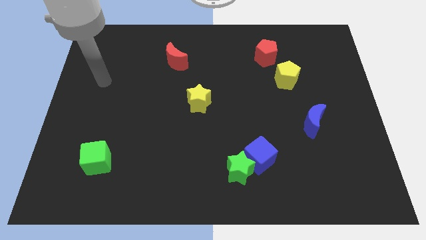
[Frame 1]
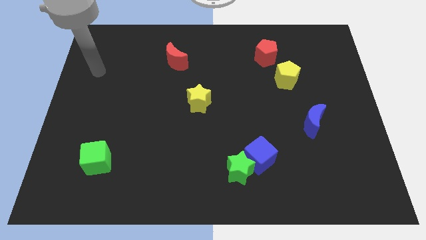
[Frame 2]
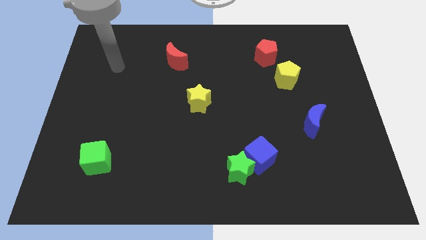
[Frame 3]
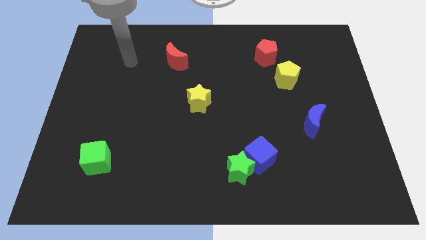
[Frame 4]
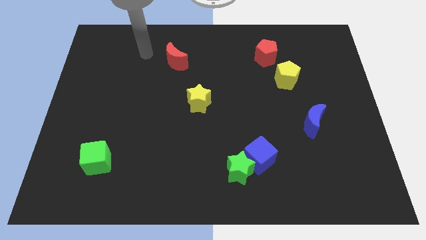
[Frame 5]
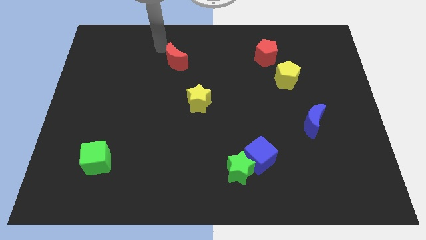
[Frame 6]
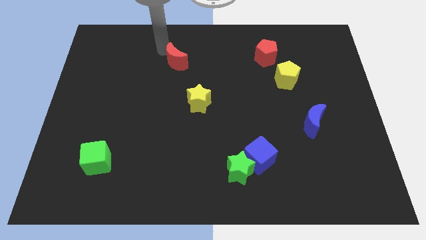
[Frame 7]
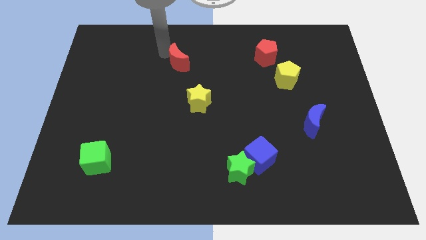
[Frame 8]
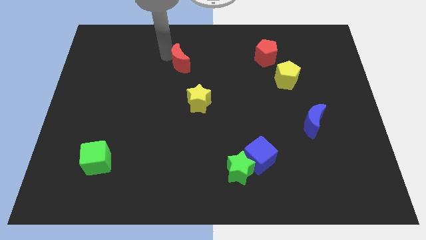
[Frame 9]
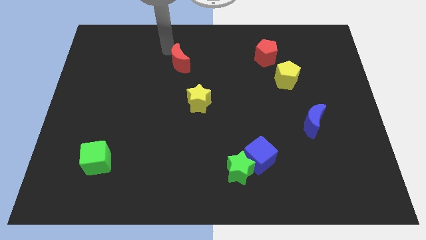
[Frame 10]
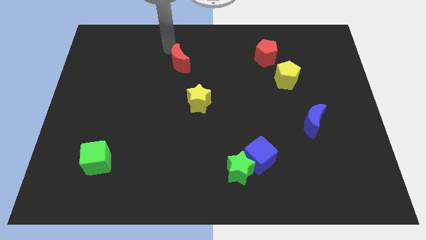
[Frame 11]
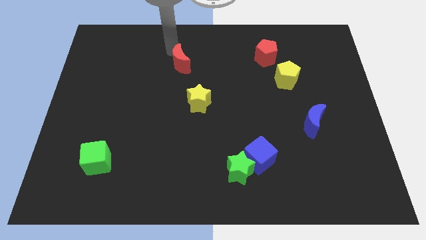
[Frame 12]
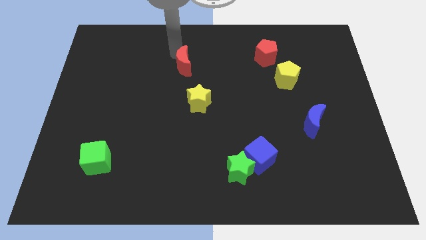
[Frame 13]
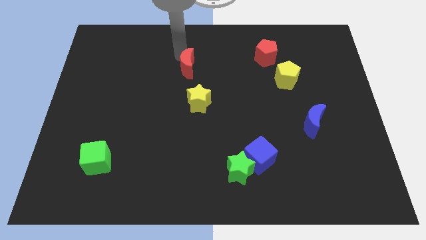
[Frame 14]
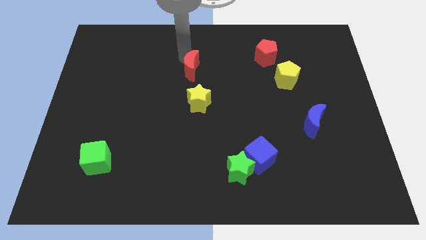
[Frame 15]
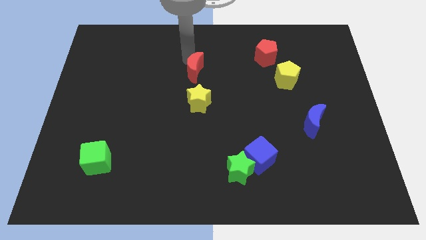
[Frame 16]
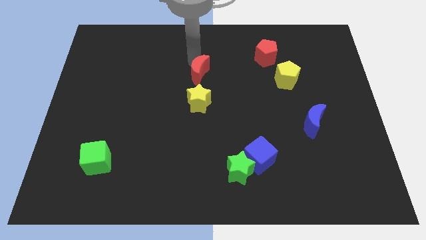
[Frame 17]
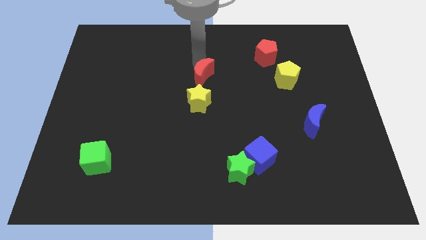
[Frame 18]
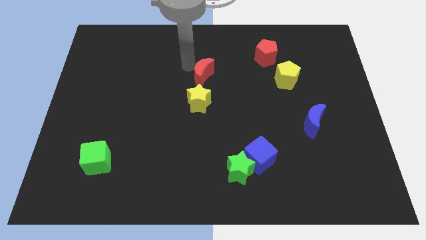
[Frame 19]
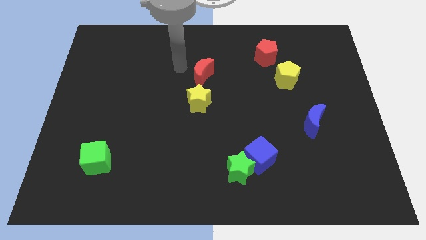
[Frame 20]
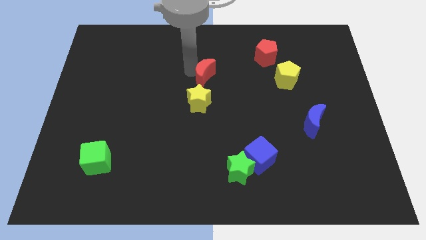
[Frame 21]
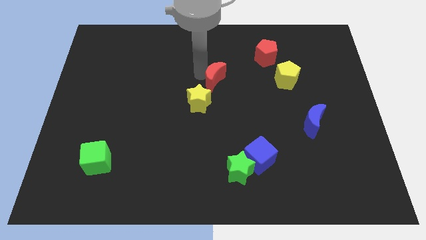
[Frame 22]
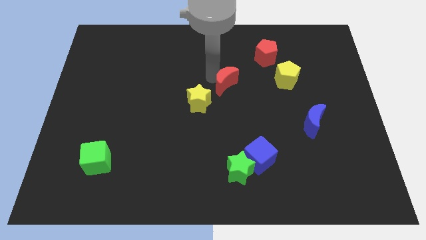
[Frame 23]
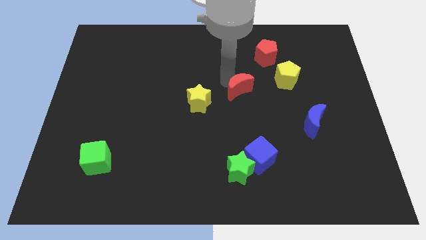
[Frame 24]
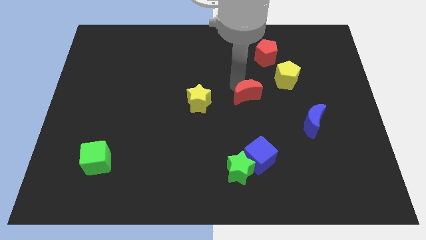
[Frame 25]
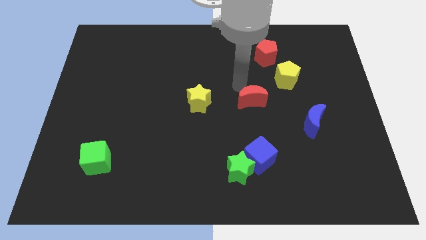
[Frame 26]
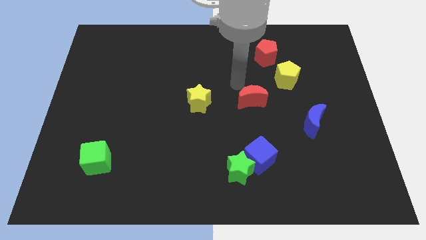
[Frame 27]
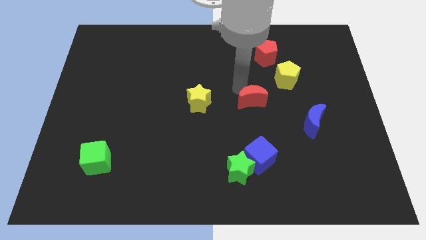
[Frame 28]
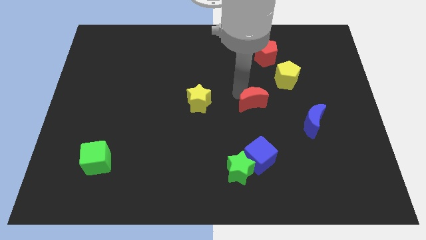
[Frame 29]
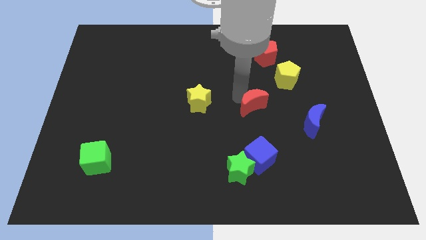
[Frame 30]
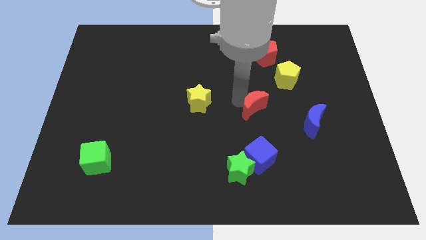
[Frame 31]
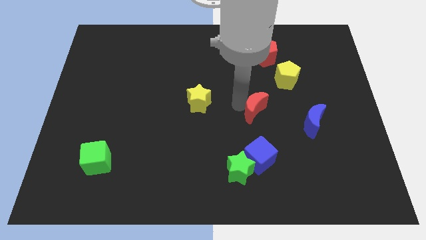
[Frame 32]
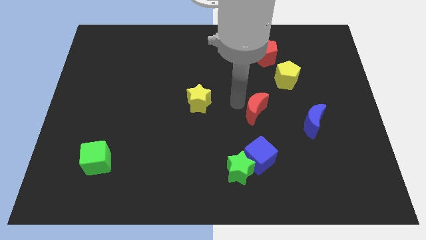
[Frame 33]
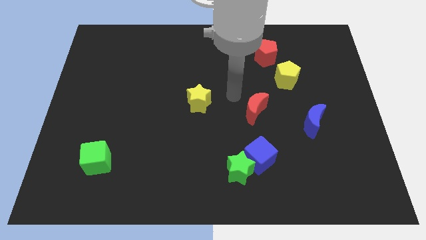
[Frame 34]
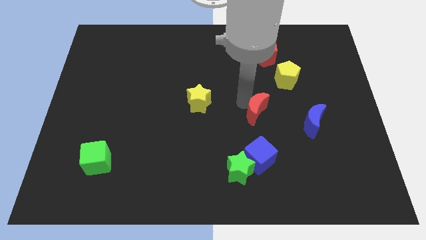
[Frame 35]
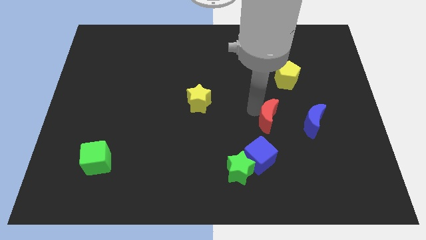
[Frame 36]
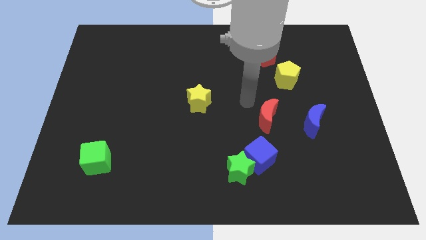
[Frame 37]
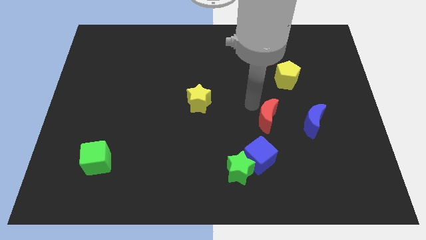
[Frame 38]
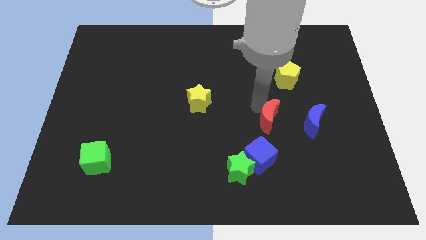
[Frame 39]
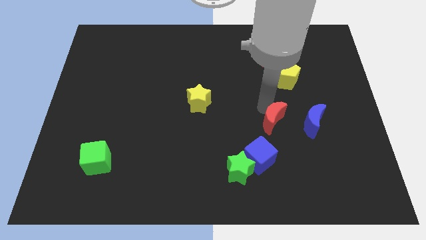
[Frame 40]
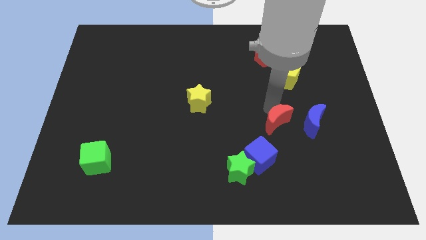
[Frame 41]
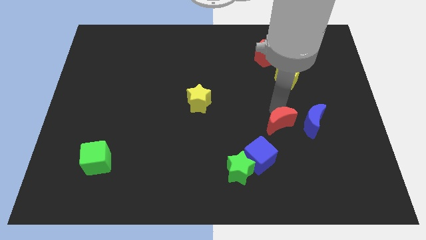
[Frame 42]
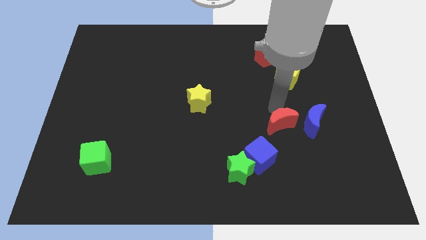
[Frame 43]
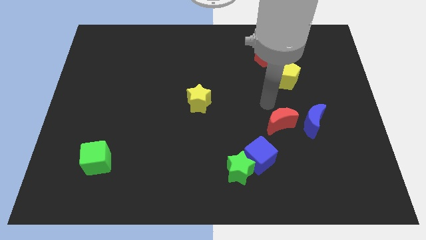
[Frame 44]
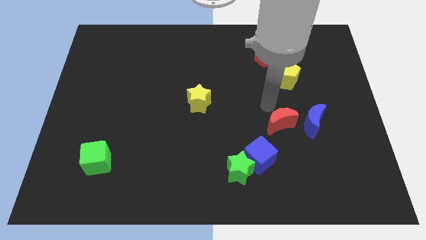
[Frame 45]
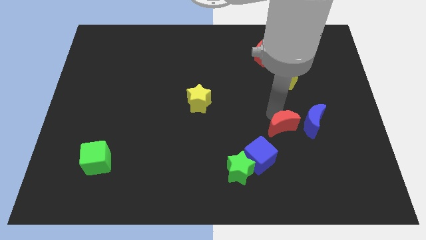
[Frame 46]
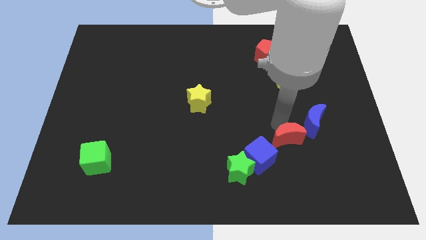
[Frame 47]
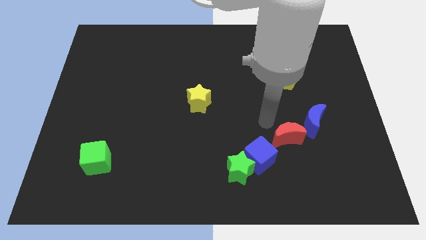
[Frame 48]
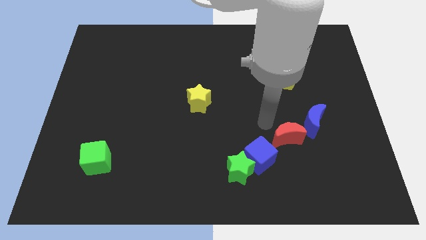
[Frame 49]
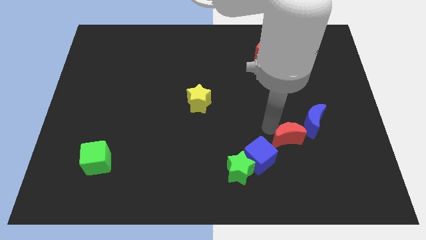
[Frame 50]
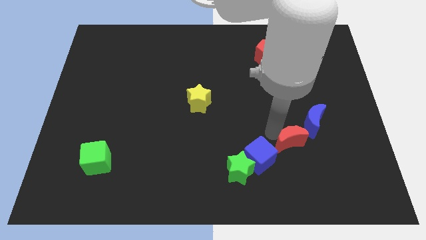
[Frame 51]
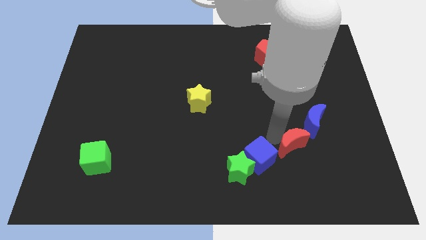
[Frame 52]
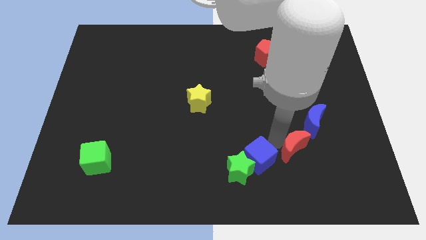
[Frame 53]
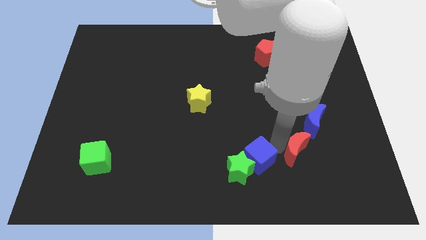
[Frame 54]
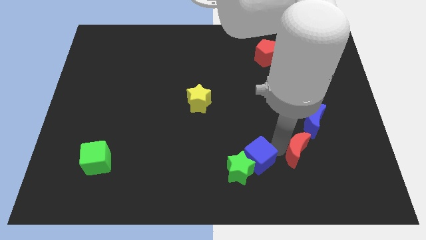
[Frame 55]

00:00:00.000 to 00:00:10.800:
move the red moon below the blue moon

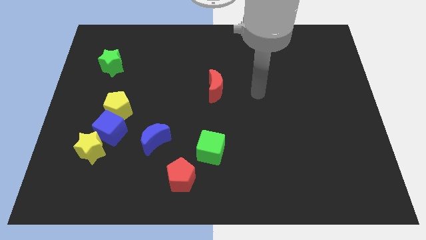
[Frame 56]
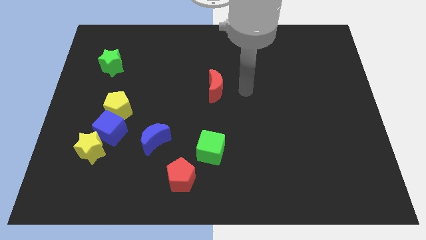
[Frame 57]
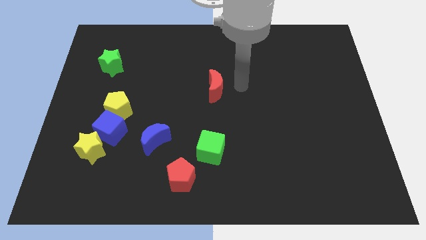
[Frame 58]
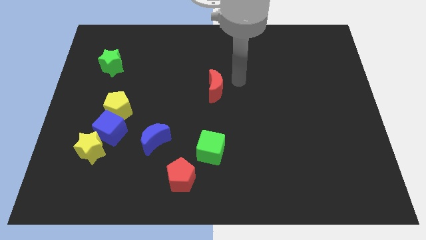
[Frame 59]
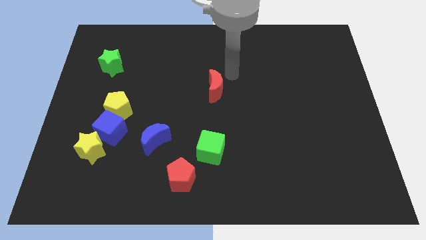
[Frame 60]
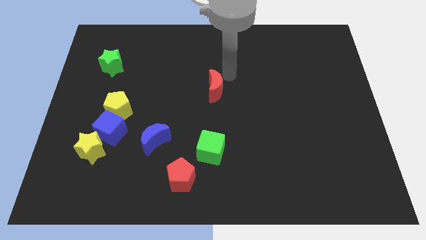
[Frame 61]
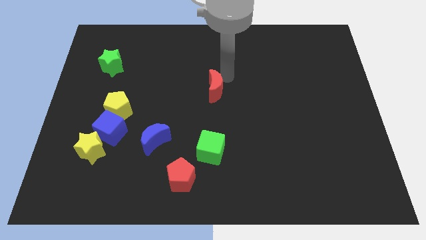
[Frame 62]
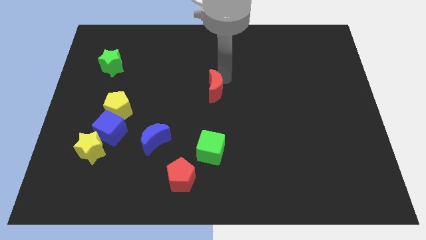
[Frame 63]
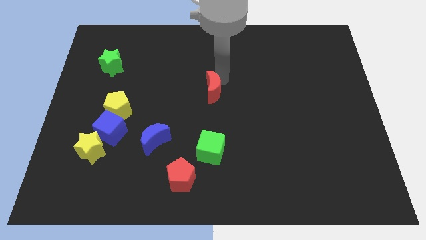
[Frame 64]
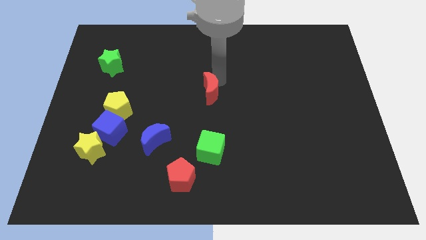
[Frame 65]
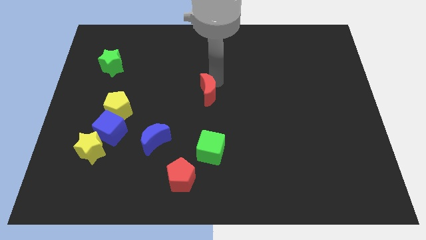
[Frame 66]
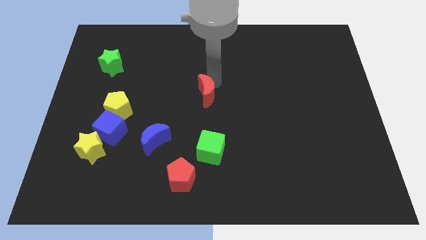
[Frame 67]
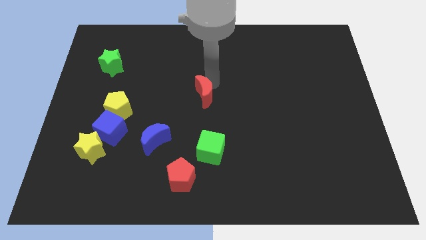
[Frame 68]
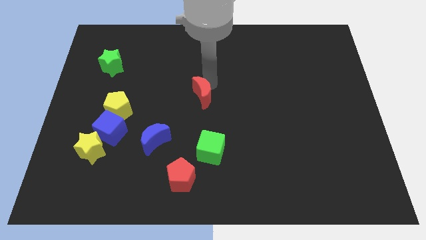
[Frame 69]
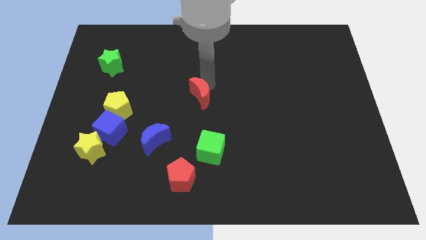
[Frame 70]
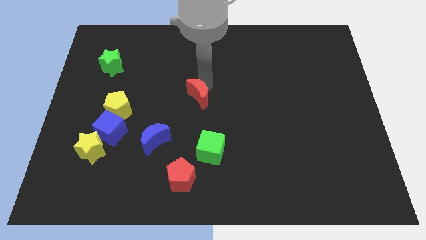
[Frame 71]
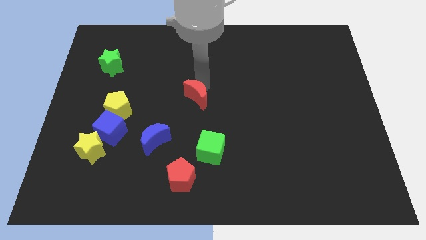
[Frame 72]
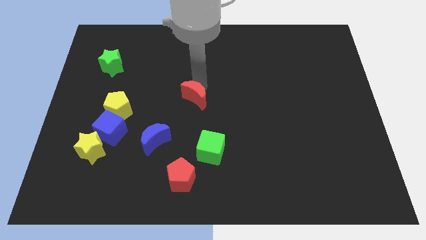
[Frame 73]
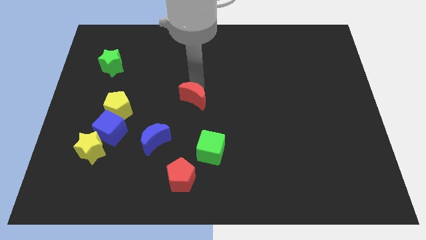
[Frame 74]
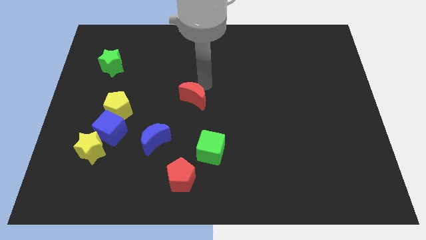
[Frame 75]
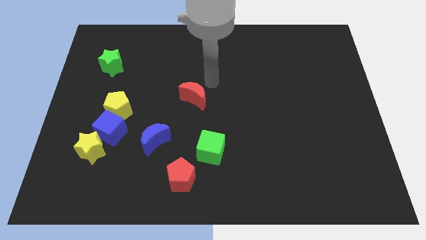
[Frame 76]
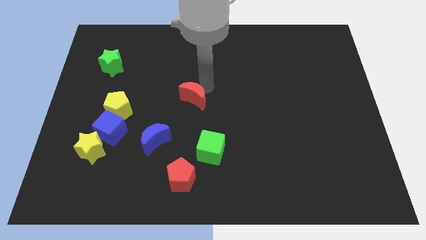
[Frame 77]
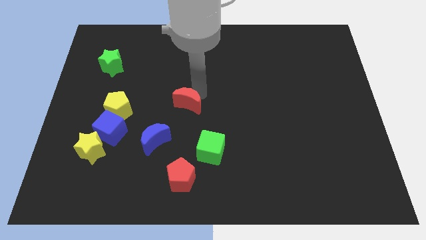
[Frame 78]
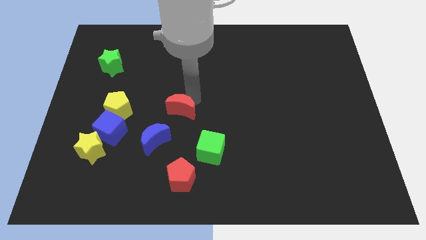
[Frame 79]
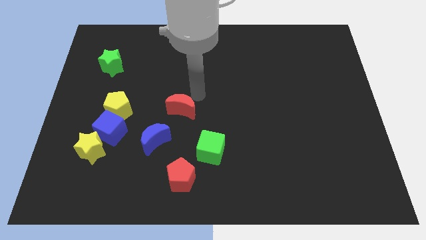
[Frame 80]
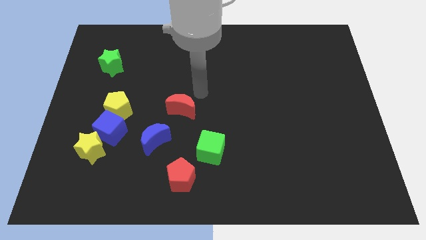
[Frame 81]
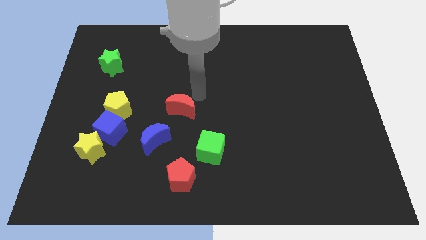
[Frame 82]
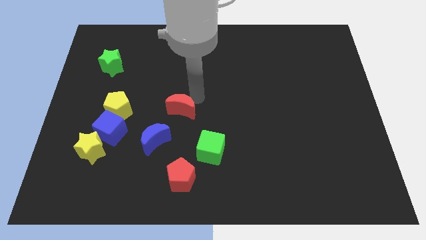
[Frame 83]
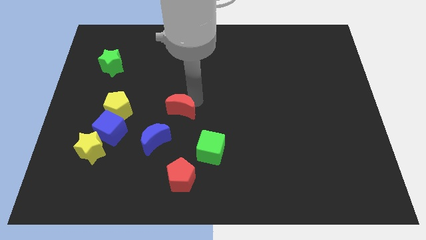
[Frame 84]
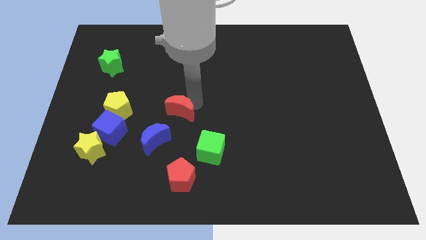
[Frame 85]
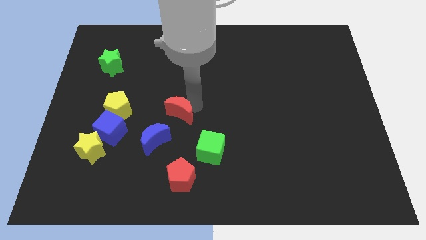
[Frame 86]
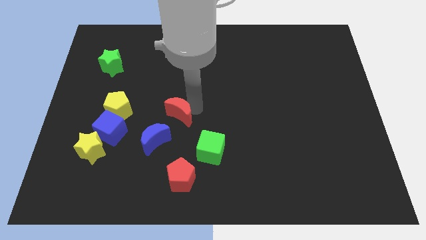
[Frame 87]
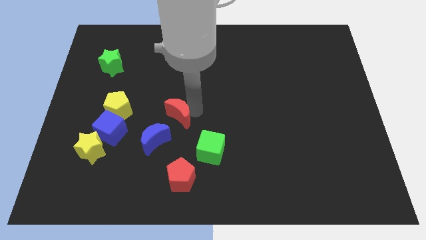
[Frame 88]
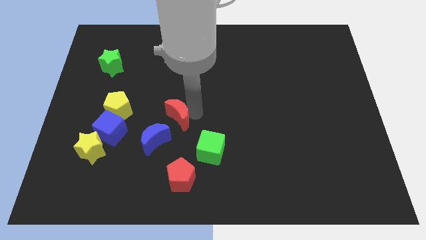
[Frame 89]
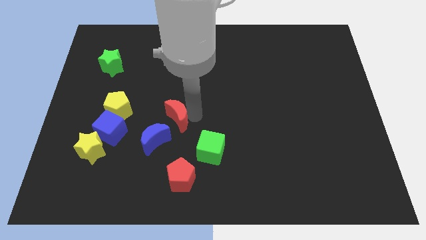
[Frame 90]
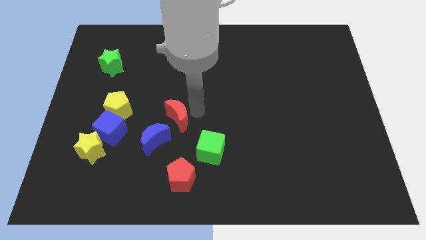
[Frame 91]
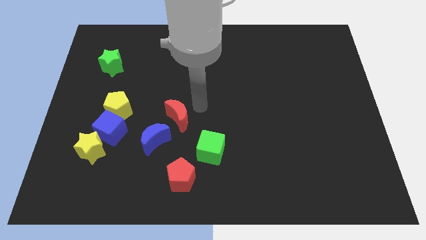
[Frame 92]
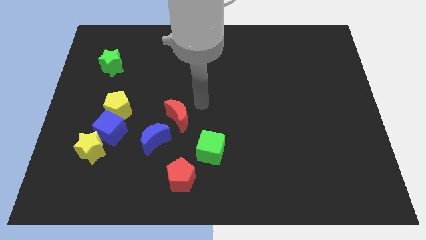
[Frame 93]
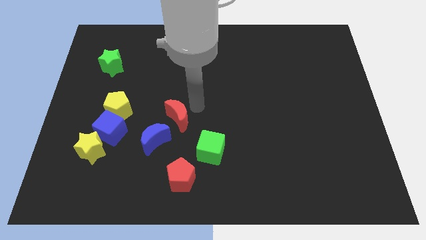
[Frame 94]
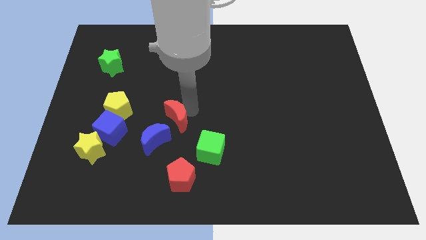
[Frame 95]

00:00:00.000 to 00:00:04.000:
put the red moon right of the blue cube
